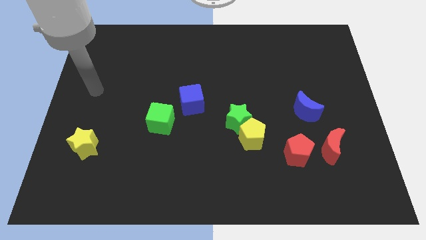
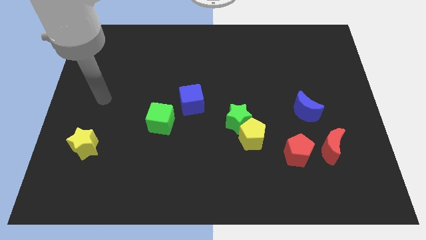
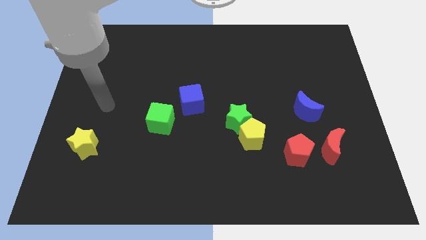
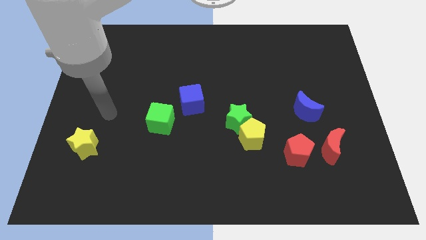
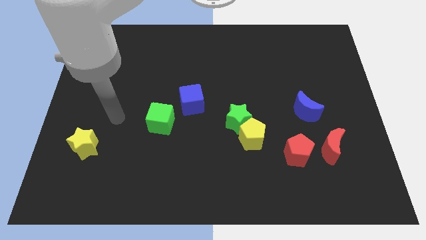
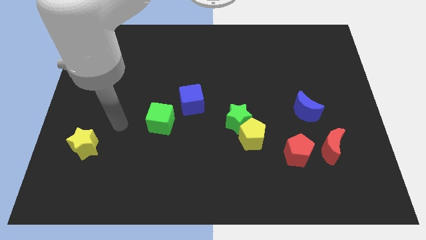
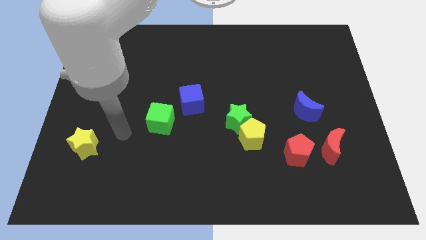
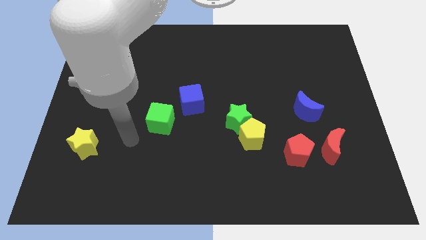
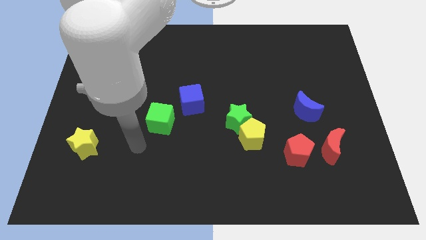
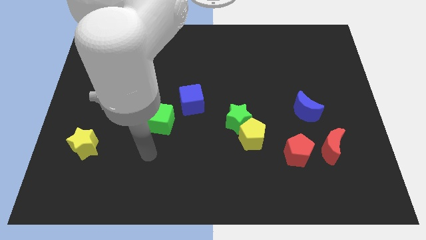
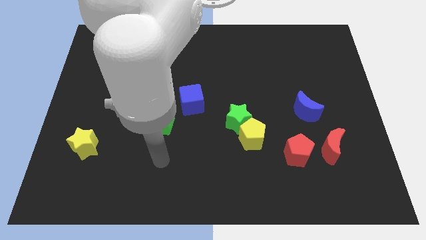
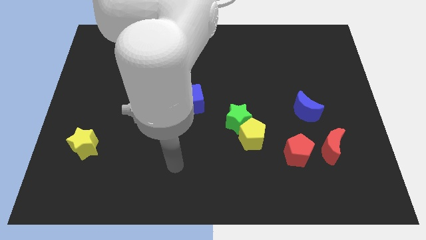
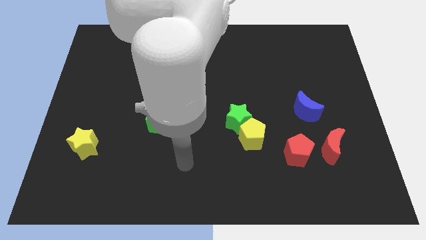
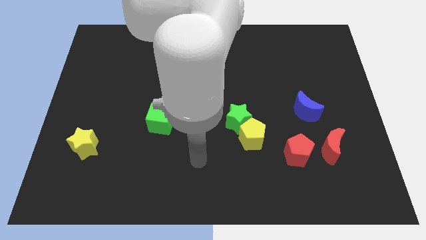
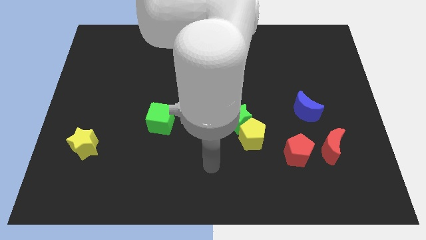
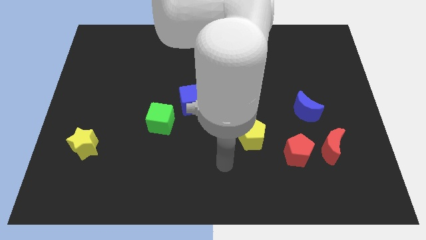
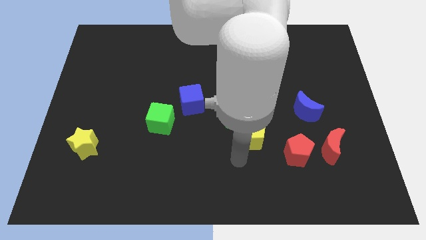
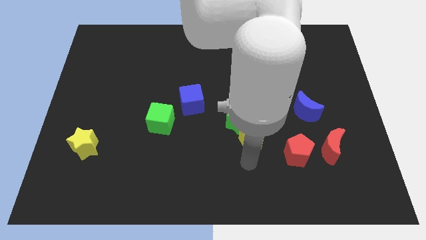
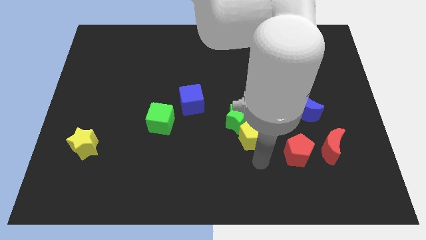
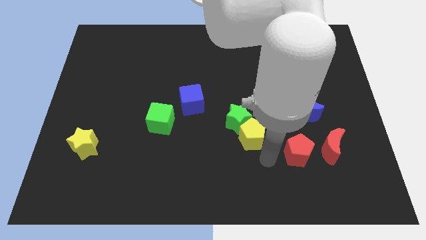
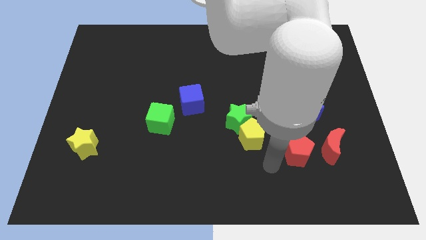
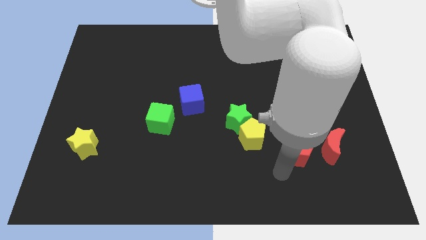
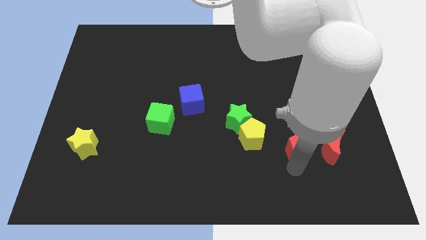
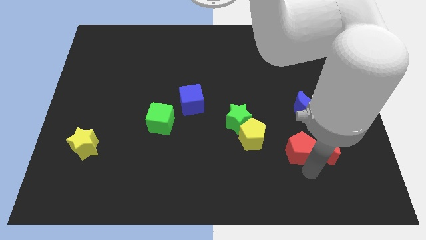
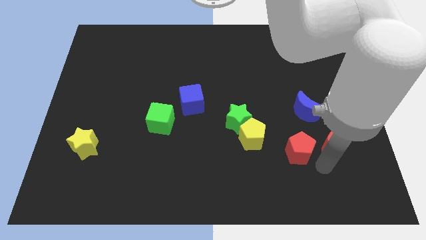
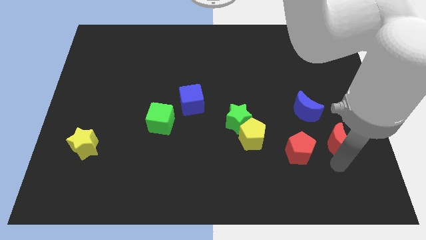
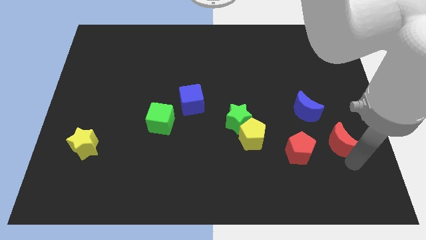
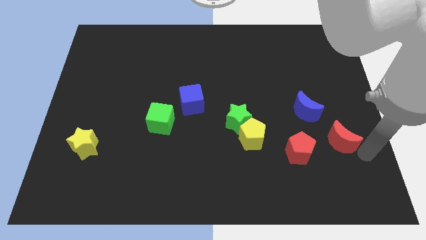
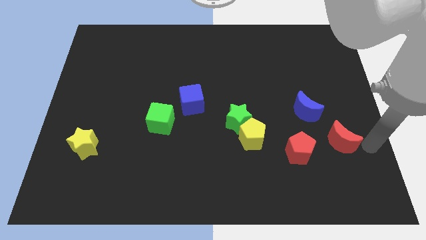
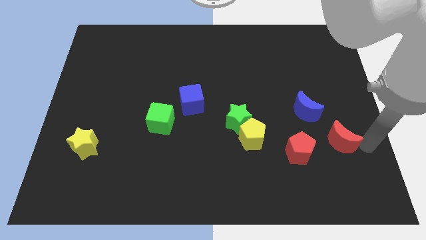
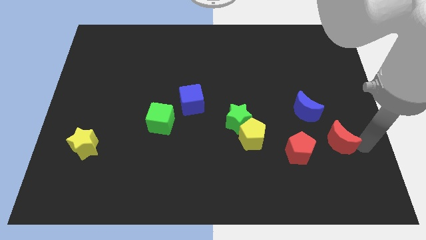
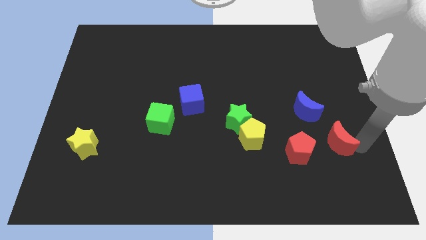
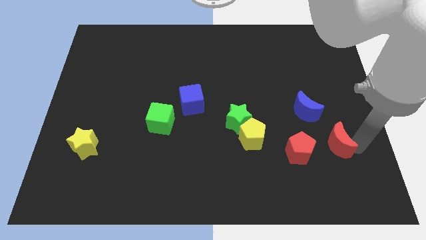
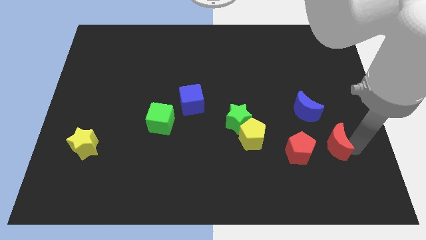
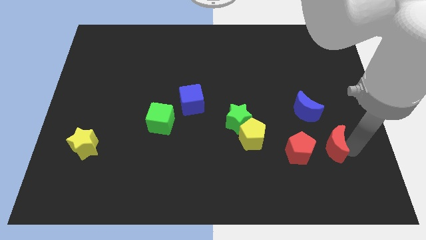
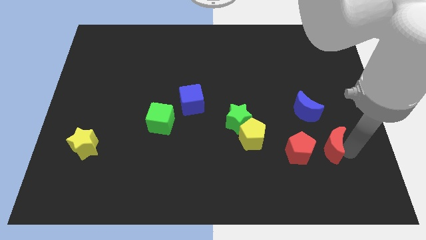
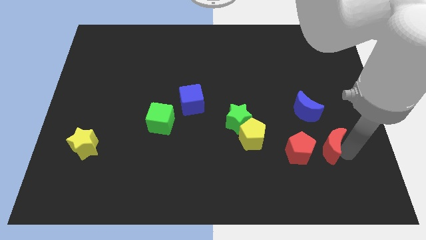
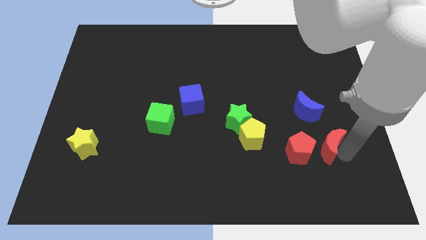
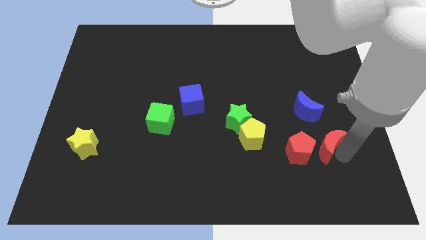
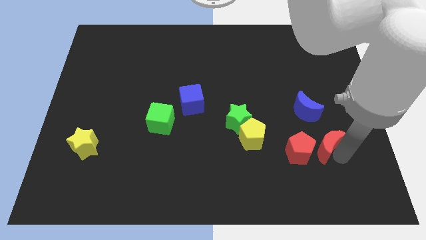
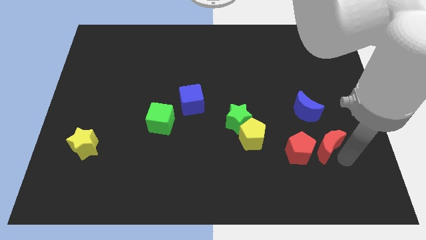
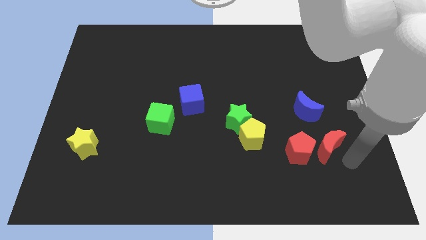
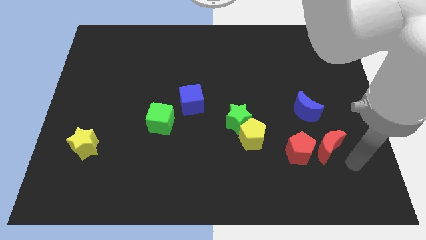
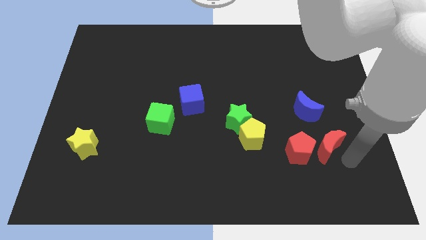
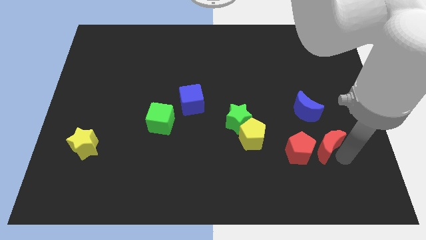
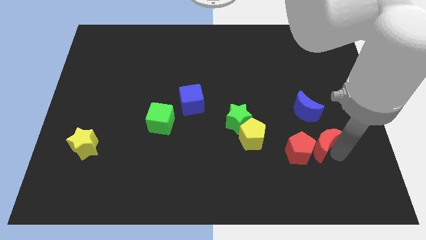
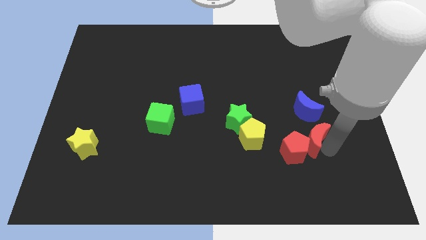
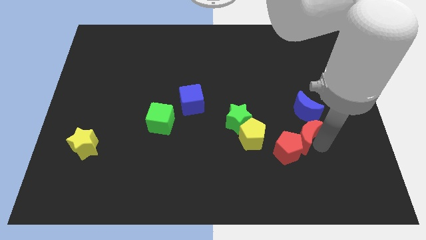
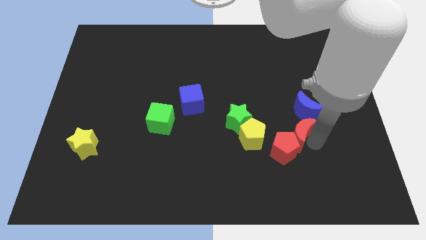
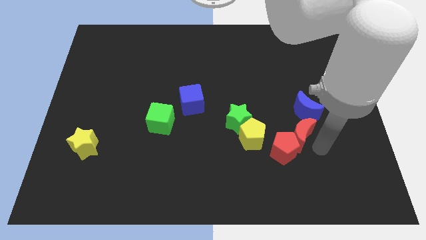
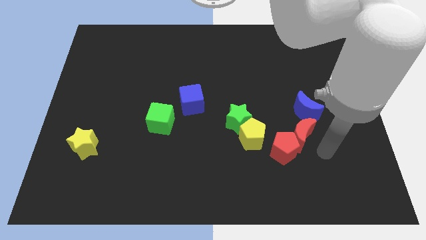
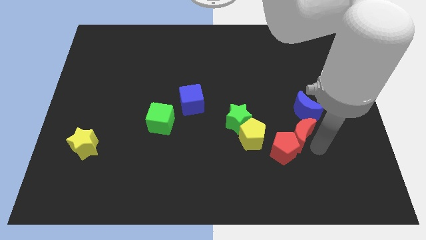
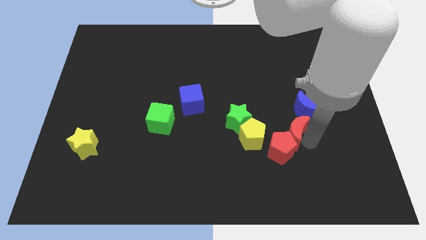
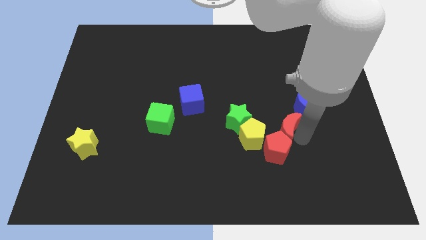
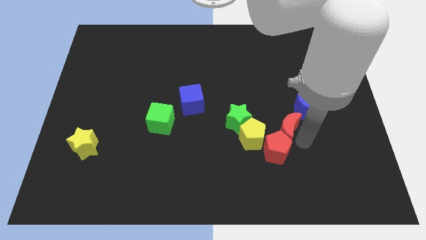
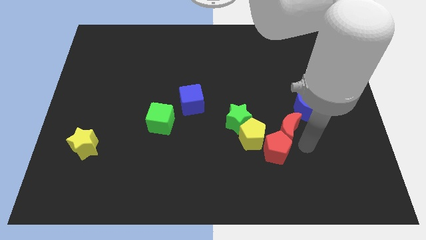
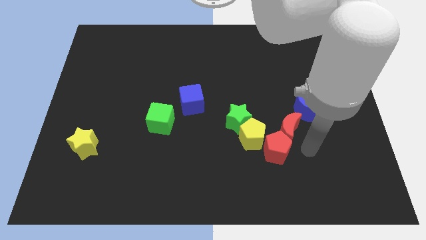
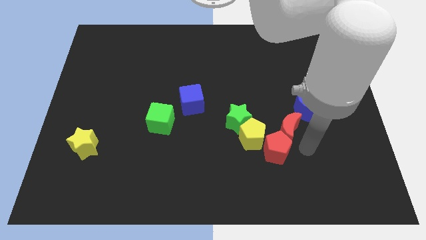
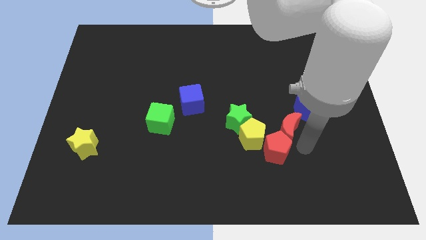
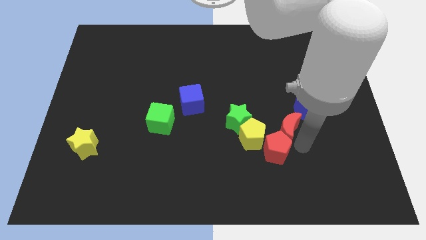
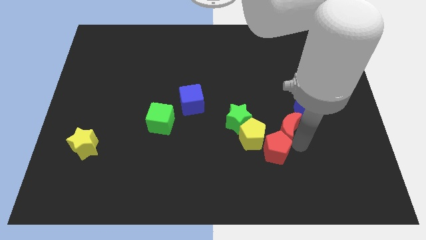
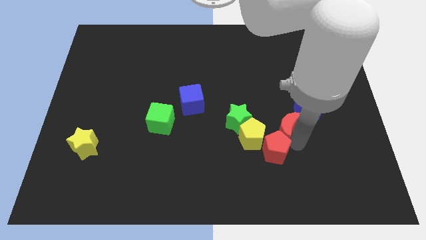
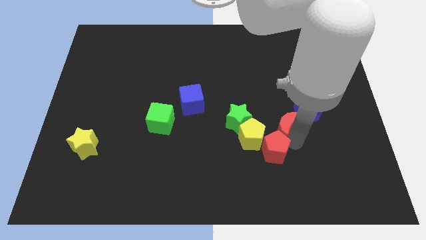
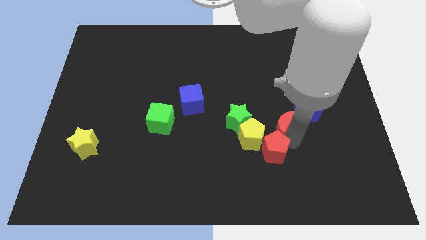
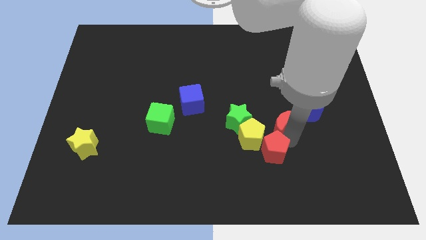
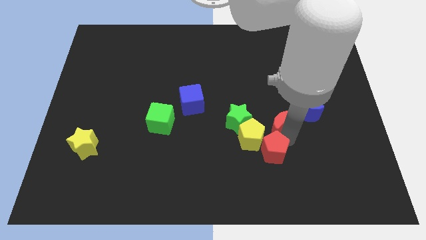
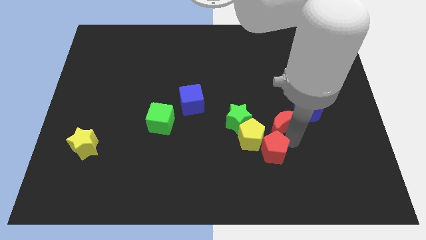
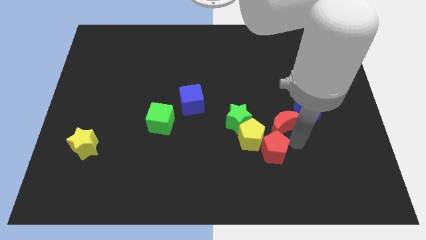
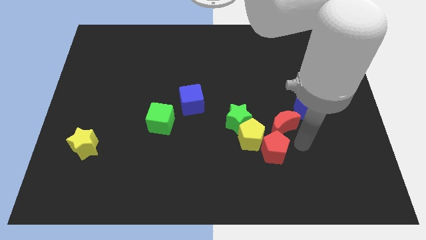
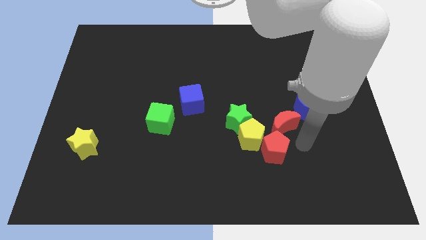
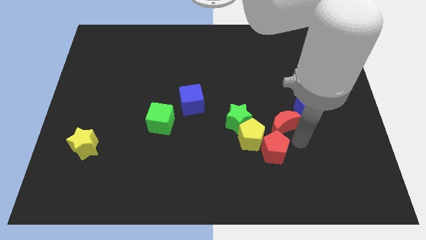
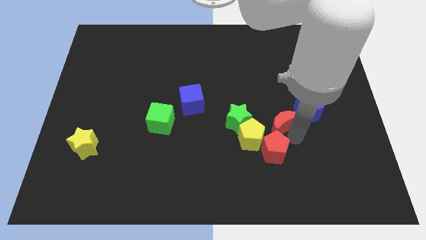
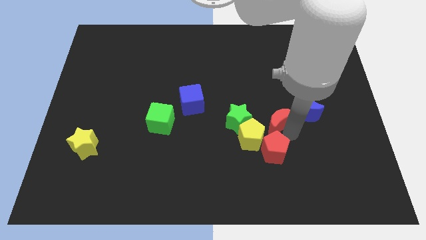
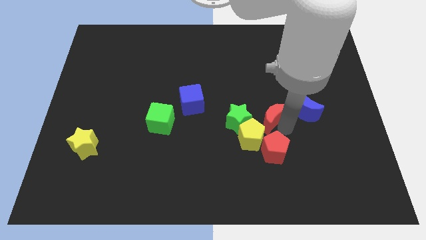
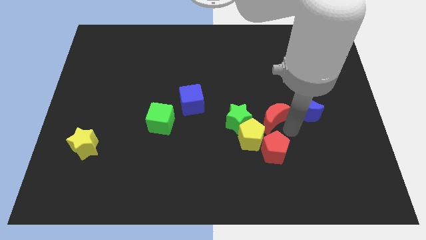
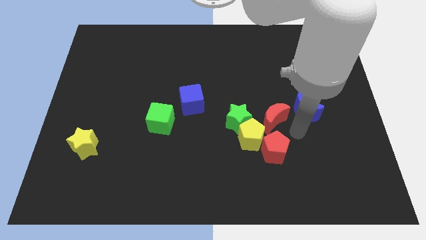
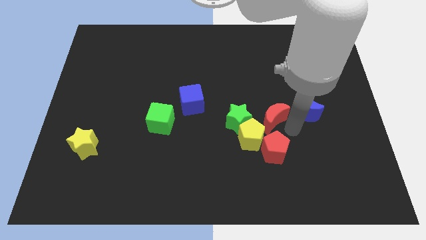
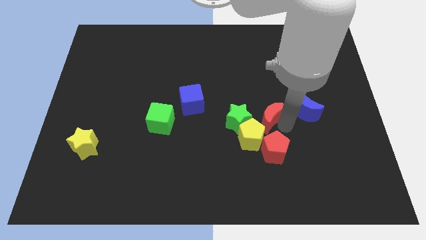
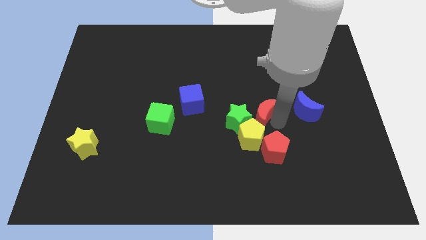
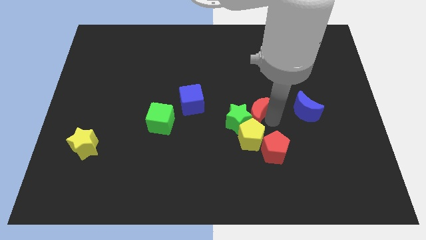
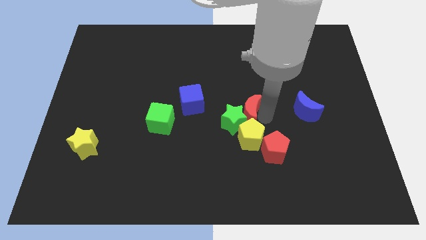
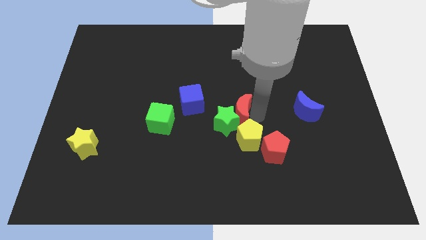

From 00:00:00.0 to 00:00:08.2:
push the red moon to the top left side of the yellow pentagon
